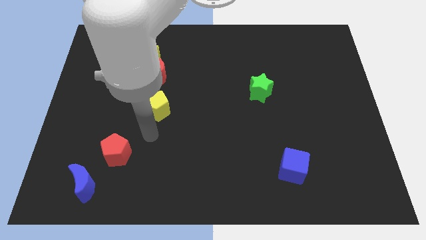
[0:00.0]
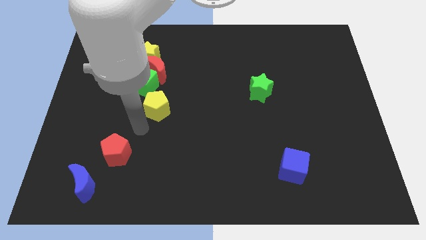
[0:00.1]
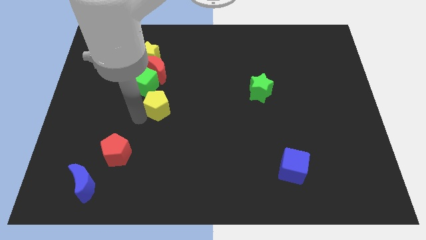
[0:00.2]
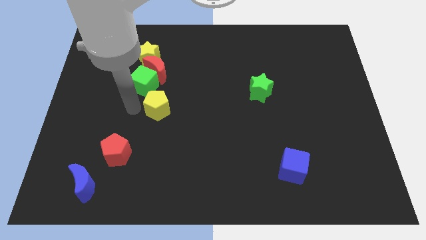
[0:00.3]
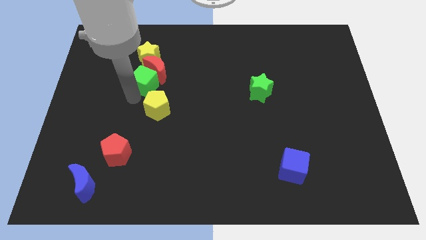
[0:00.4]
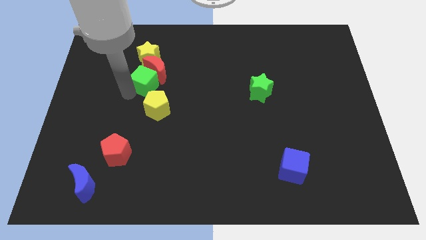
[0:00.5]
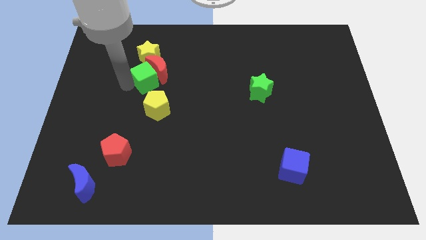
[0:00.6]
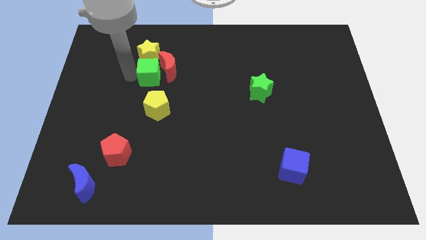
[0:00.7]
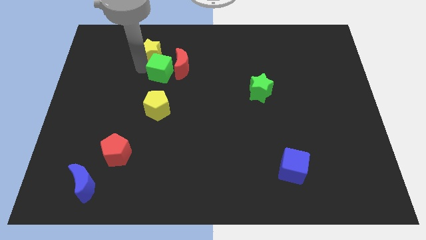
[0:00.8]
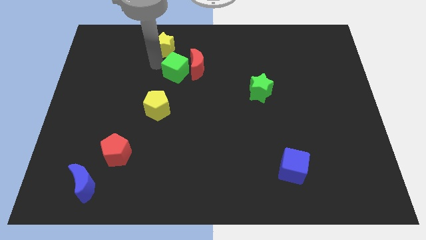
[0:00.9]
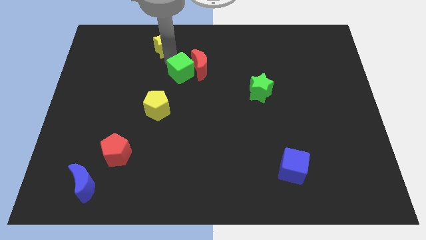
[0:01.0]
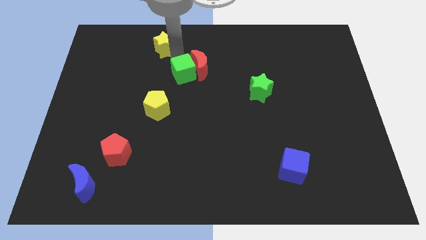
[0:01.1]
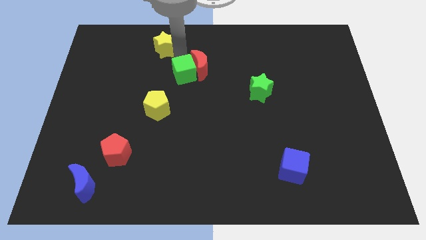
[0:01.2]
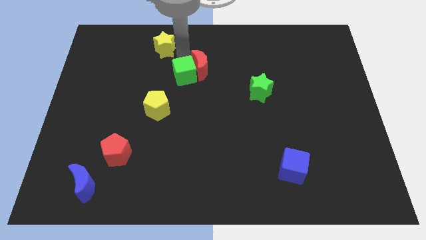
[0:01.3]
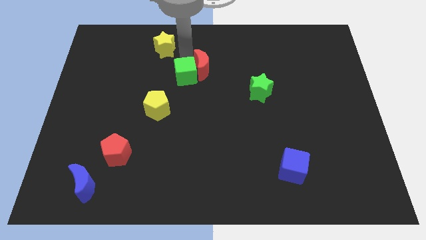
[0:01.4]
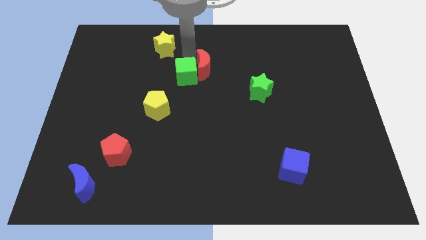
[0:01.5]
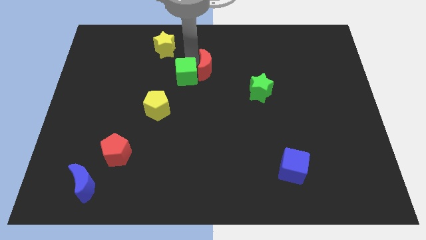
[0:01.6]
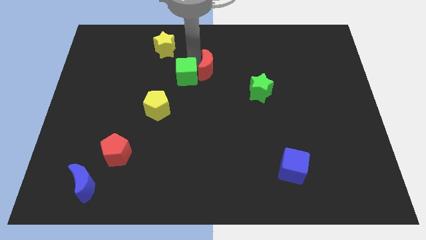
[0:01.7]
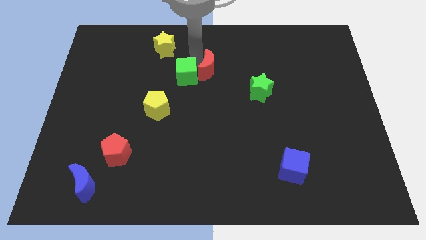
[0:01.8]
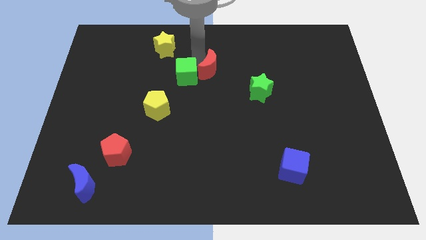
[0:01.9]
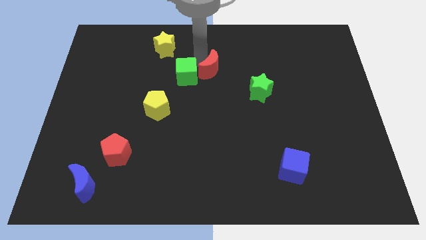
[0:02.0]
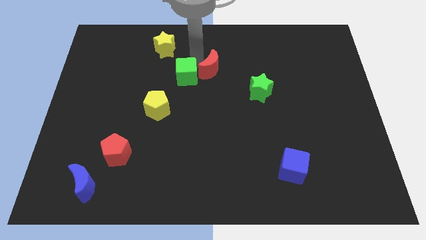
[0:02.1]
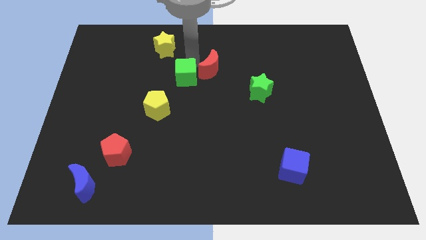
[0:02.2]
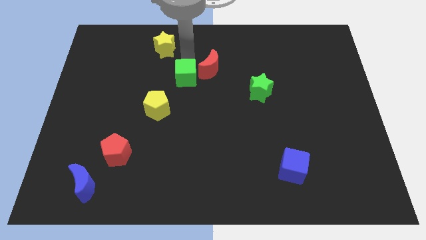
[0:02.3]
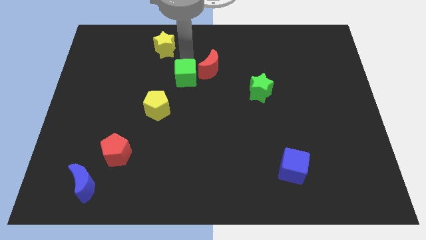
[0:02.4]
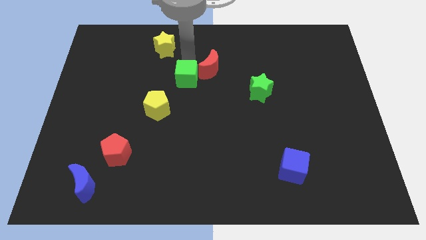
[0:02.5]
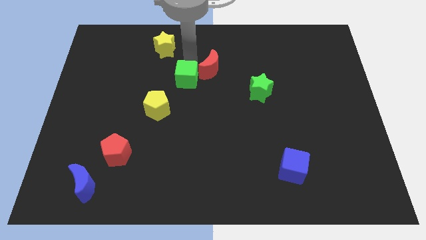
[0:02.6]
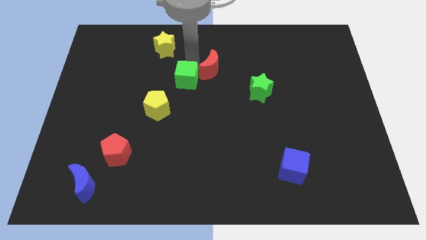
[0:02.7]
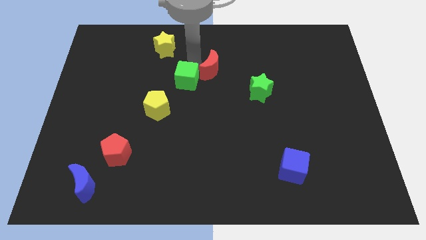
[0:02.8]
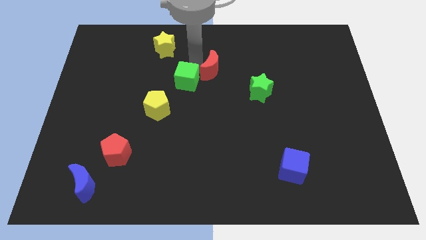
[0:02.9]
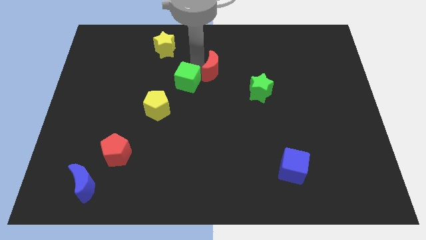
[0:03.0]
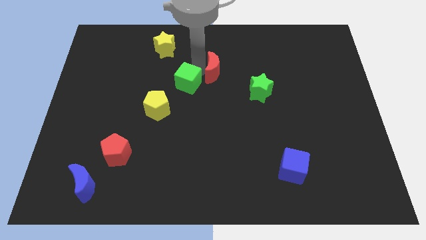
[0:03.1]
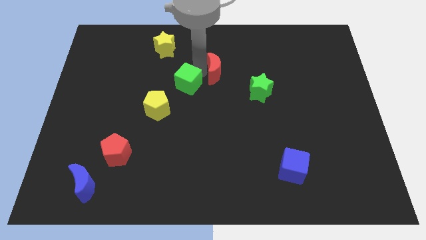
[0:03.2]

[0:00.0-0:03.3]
pull the red moon apart from the green cube and yellow star

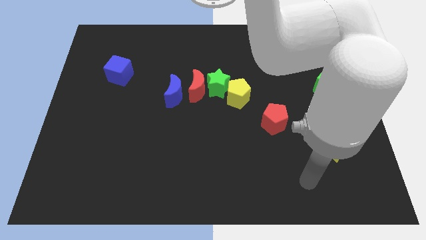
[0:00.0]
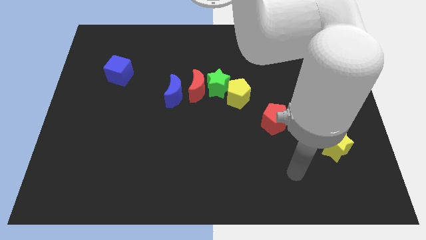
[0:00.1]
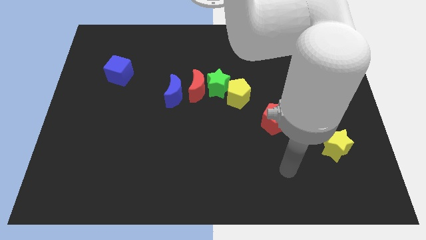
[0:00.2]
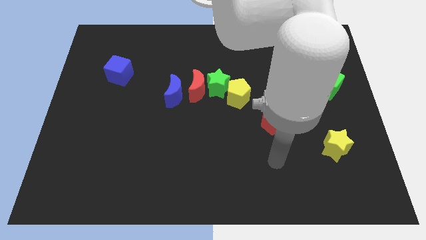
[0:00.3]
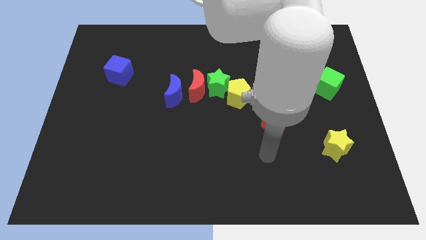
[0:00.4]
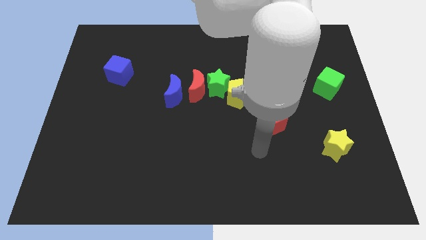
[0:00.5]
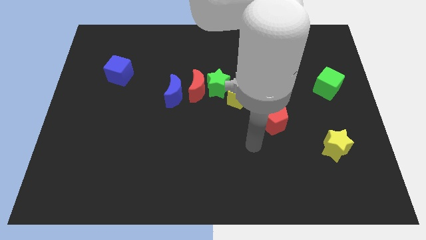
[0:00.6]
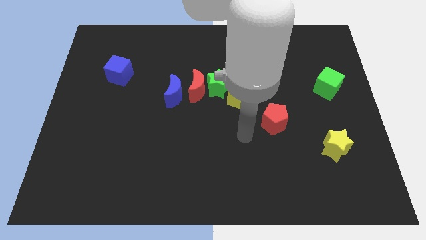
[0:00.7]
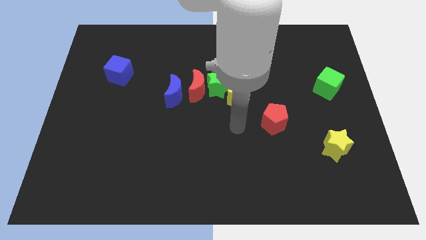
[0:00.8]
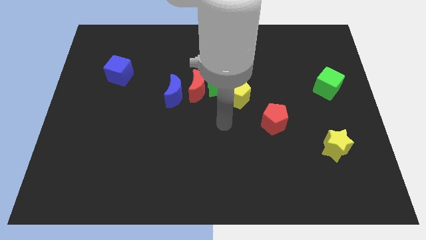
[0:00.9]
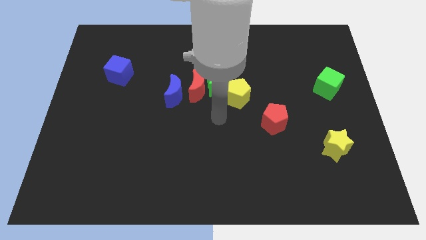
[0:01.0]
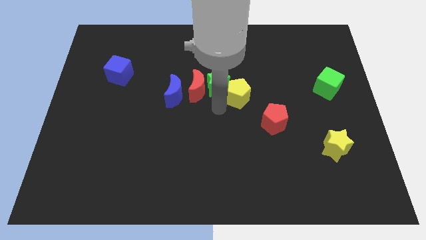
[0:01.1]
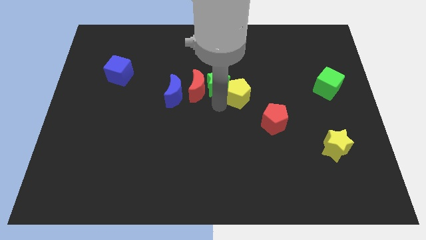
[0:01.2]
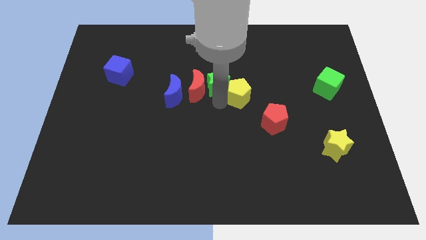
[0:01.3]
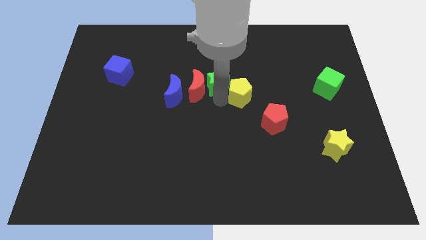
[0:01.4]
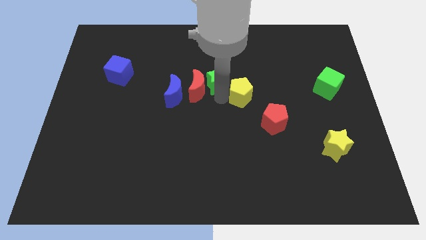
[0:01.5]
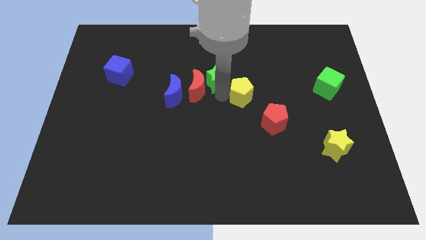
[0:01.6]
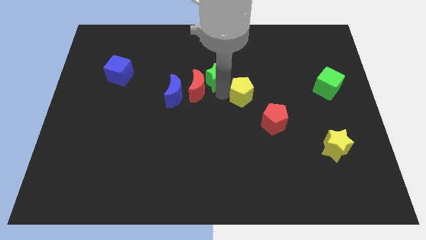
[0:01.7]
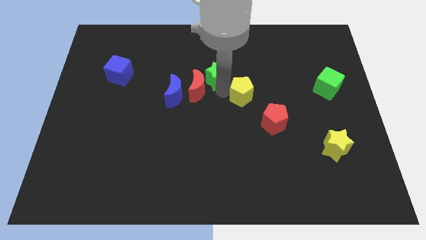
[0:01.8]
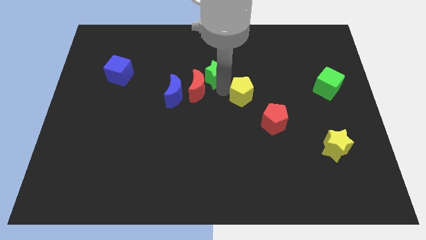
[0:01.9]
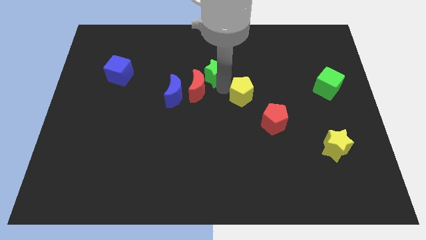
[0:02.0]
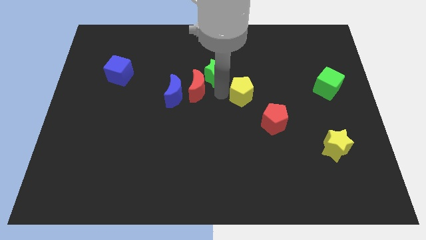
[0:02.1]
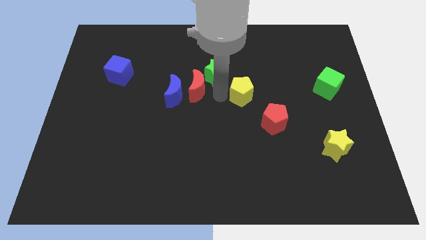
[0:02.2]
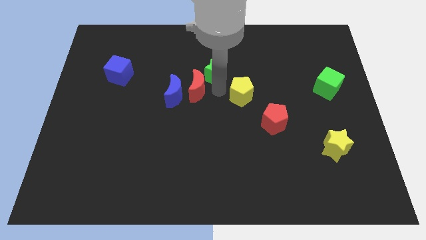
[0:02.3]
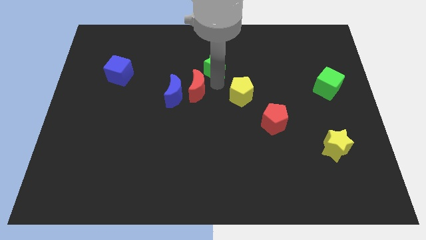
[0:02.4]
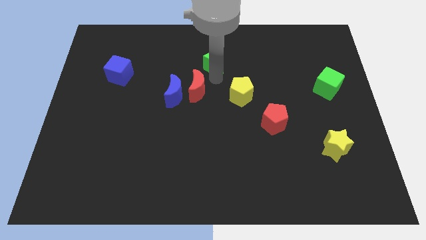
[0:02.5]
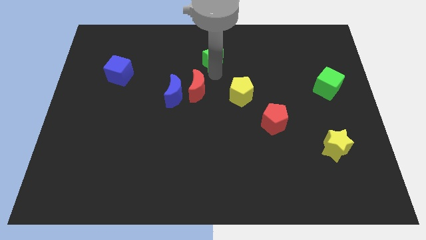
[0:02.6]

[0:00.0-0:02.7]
pull the green star apart from the red moon and yellow pentagon

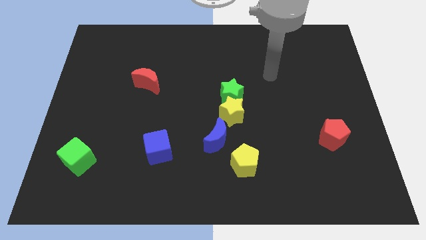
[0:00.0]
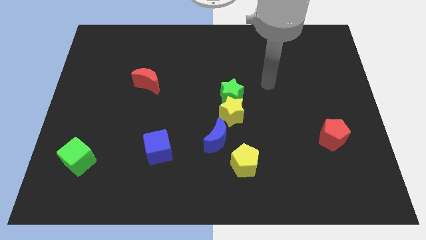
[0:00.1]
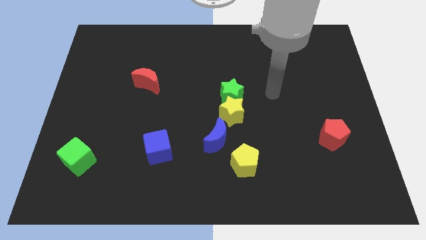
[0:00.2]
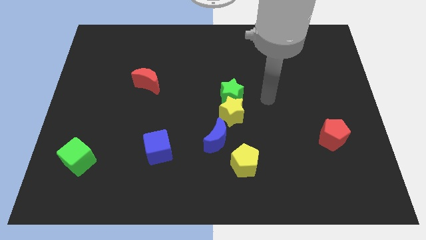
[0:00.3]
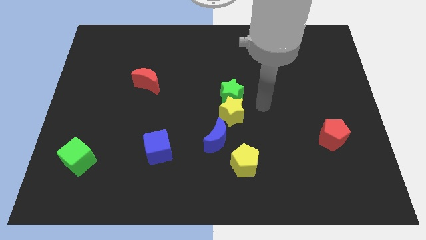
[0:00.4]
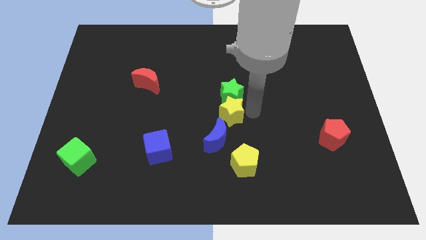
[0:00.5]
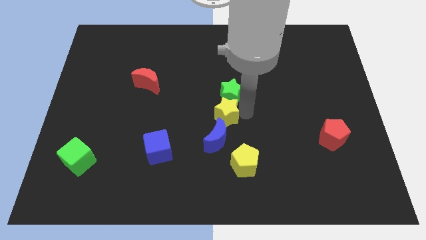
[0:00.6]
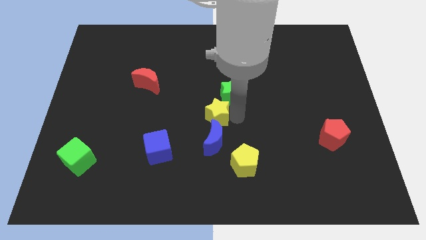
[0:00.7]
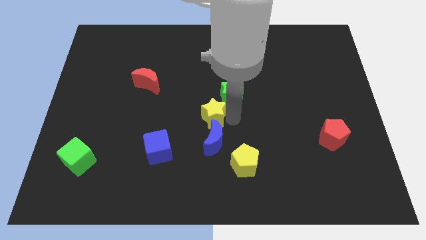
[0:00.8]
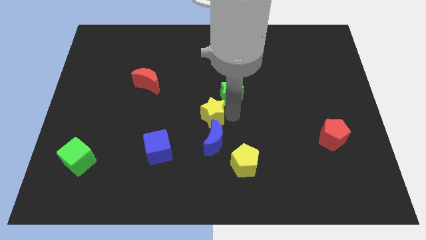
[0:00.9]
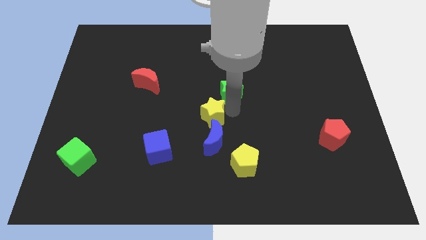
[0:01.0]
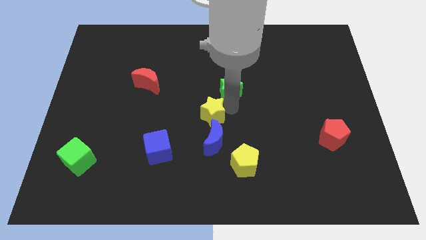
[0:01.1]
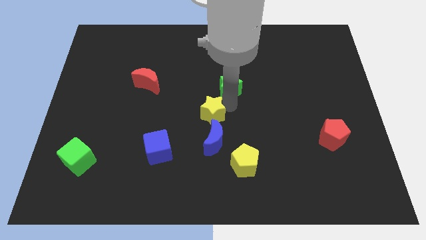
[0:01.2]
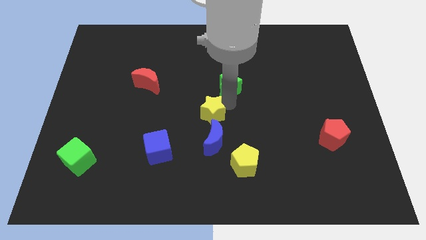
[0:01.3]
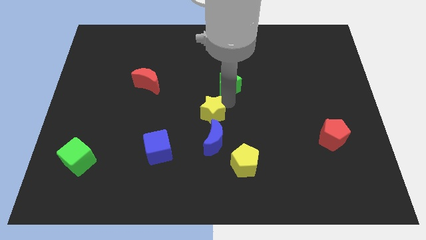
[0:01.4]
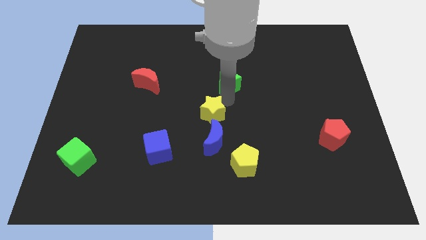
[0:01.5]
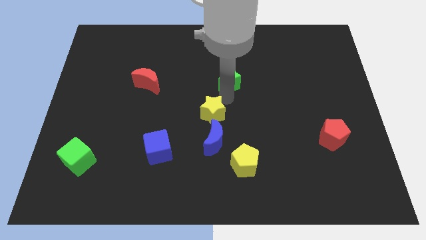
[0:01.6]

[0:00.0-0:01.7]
pull the green star apart from the yellow star

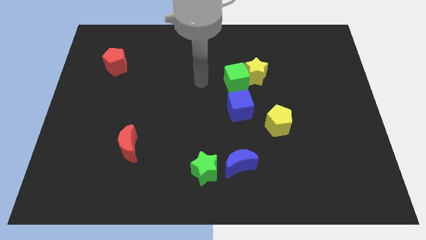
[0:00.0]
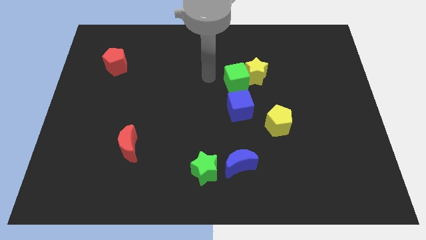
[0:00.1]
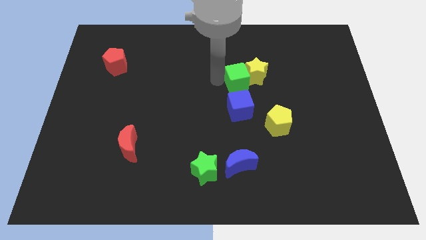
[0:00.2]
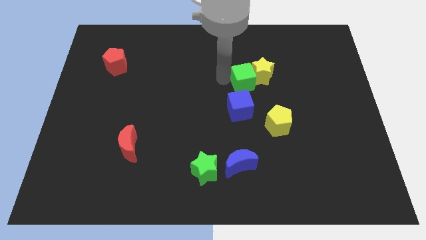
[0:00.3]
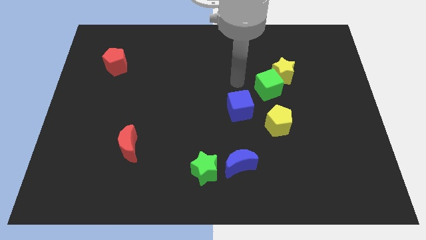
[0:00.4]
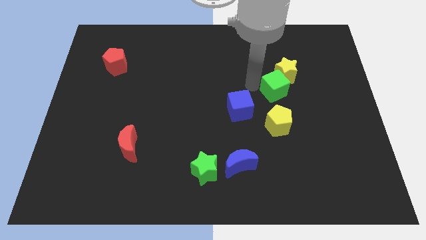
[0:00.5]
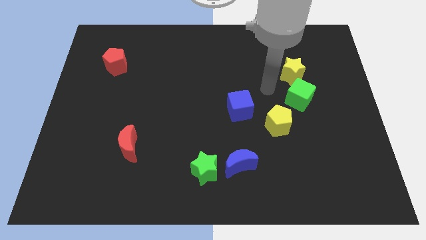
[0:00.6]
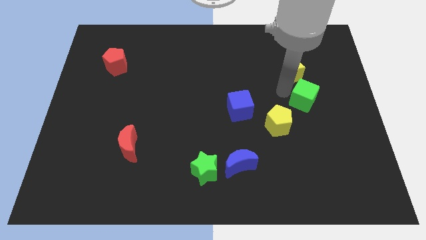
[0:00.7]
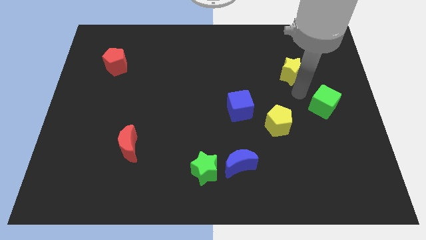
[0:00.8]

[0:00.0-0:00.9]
move the yellow star away from the green cube

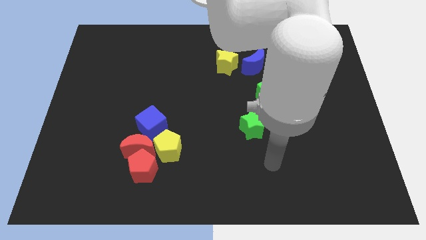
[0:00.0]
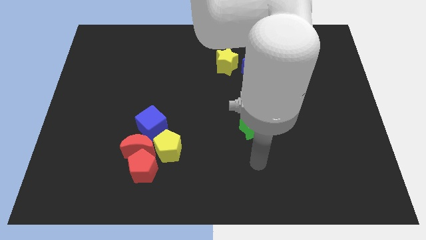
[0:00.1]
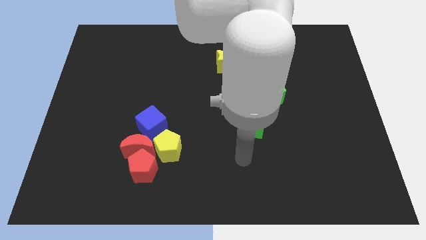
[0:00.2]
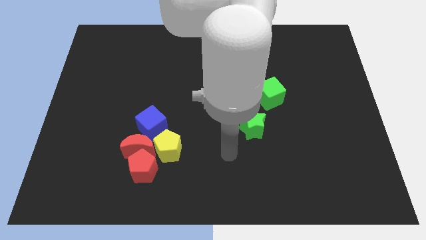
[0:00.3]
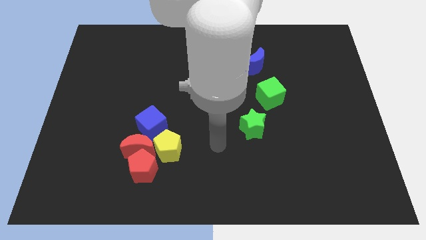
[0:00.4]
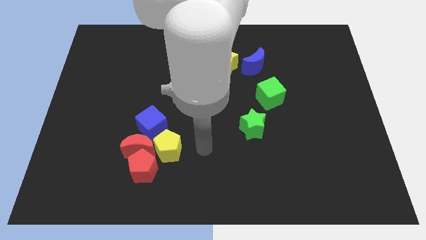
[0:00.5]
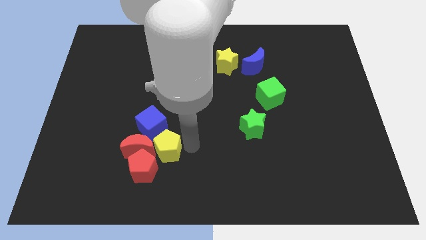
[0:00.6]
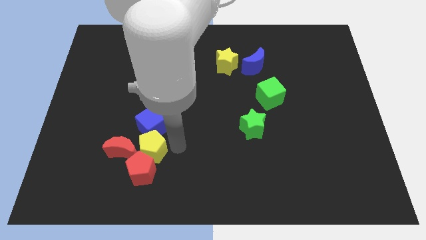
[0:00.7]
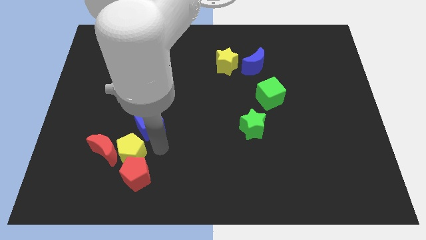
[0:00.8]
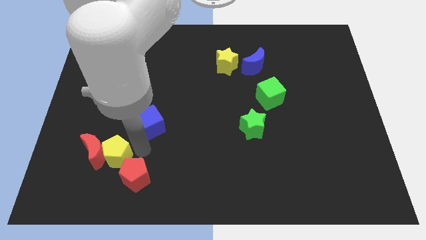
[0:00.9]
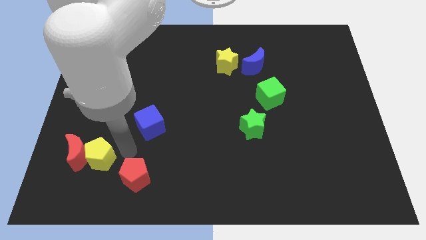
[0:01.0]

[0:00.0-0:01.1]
move the red moon away from the red pentagon, blue cube, and yellow pentagon
